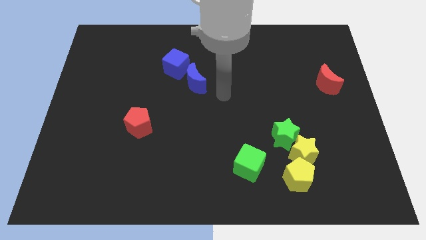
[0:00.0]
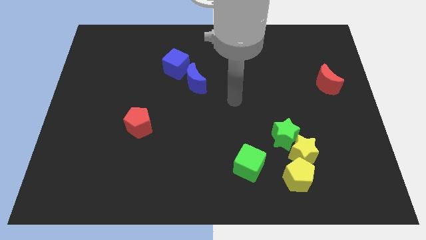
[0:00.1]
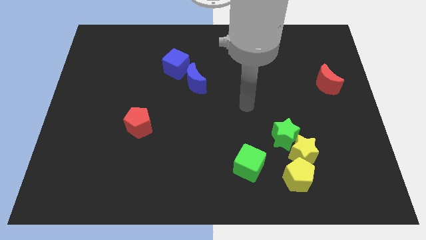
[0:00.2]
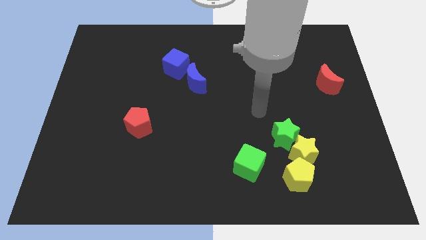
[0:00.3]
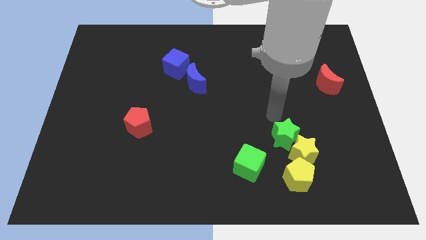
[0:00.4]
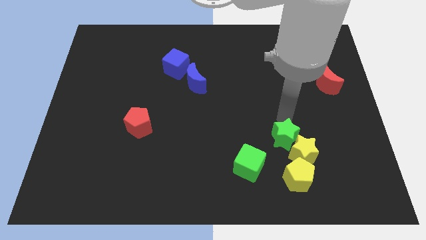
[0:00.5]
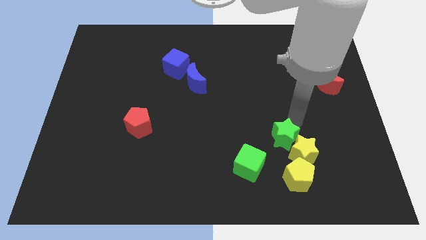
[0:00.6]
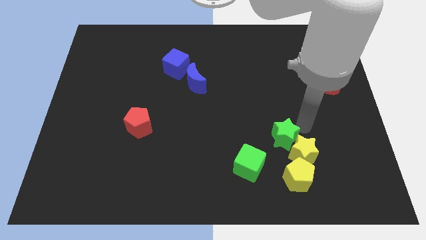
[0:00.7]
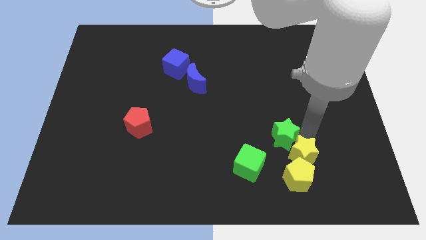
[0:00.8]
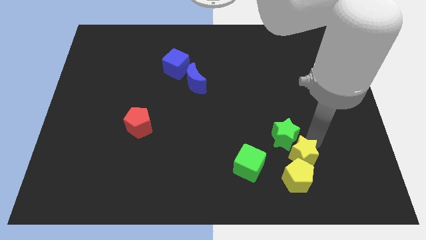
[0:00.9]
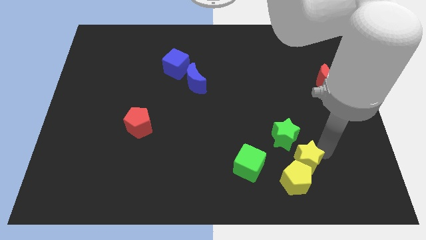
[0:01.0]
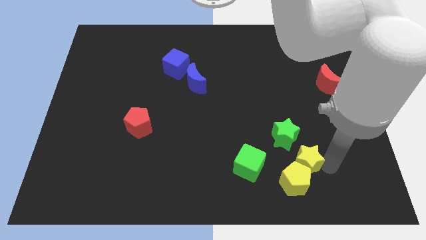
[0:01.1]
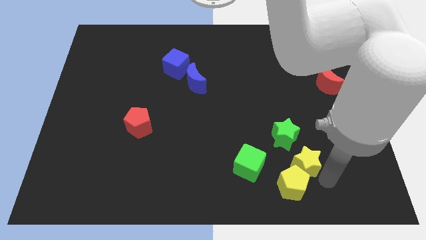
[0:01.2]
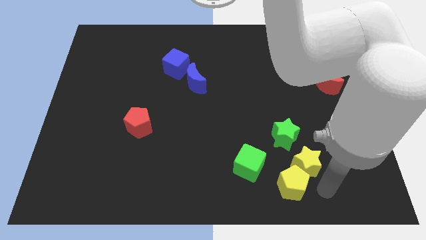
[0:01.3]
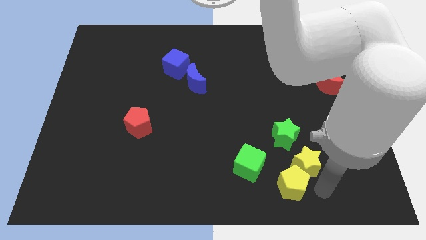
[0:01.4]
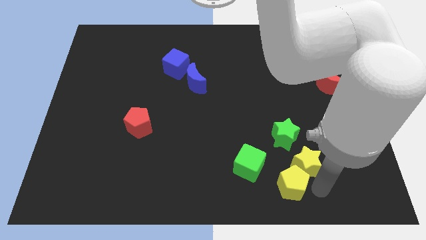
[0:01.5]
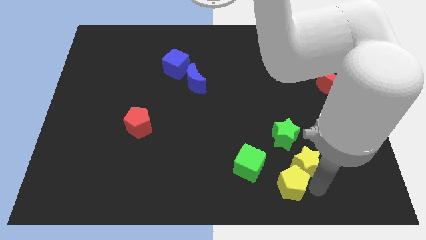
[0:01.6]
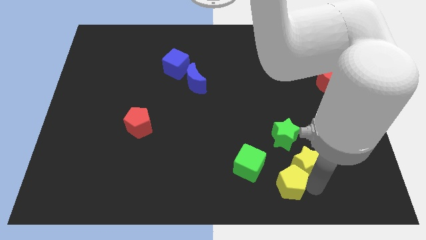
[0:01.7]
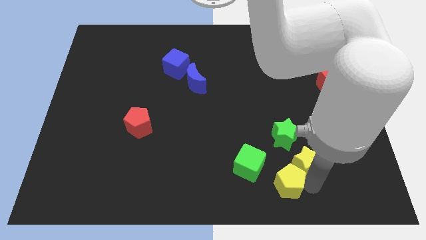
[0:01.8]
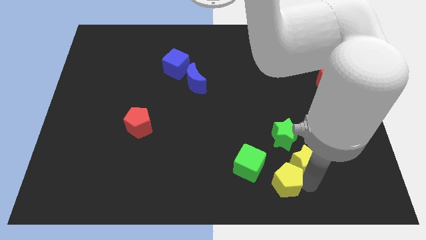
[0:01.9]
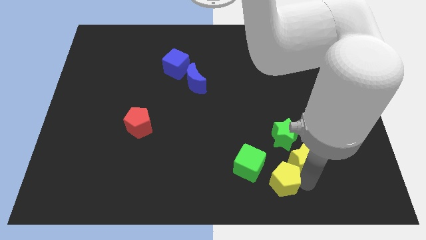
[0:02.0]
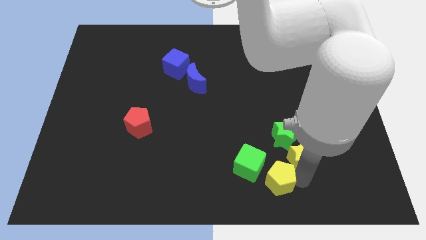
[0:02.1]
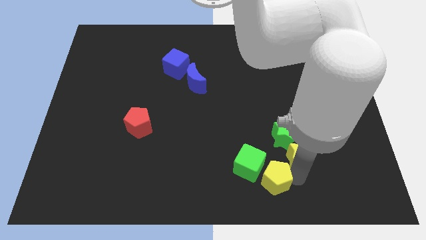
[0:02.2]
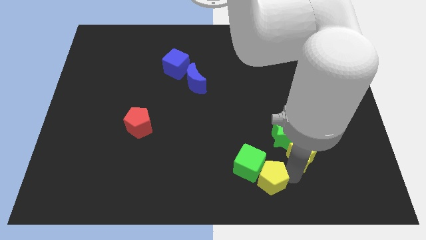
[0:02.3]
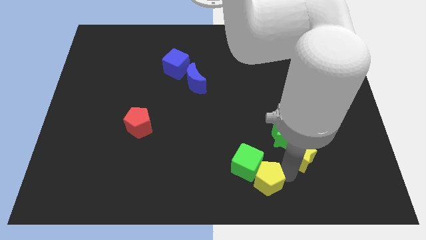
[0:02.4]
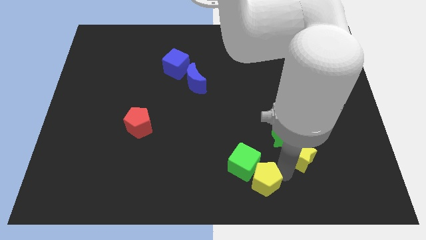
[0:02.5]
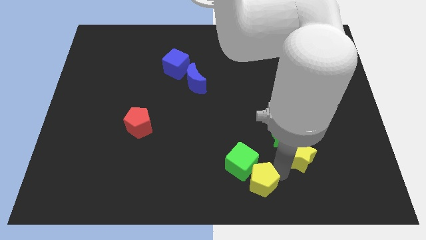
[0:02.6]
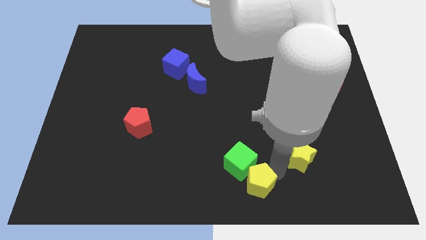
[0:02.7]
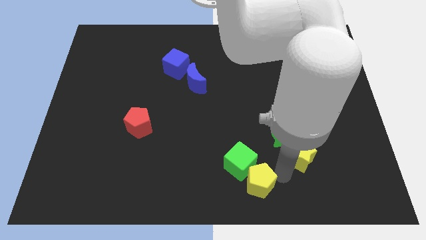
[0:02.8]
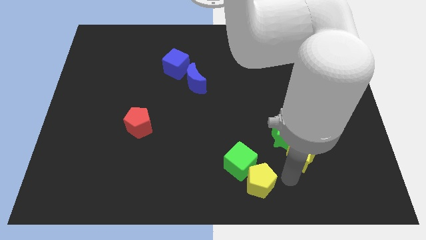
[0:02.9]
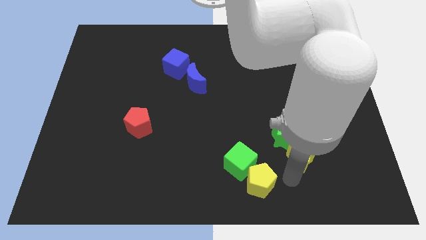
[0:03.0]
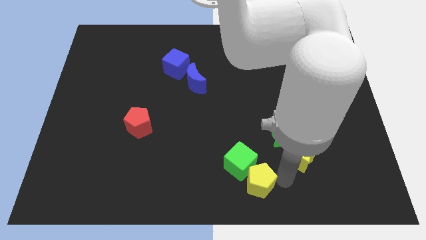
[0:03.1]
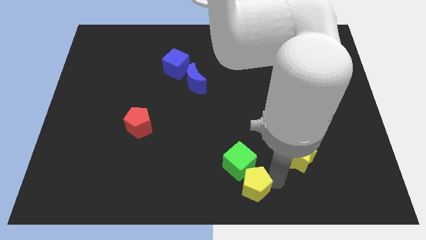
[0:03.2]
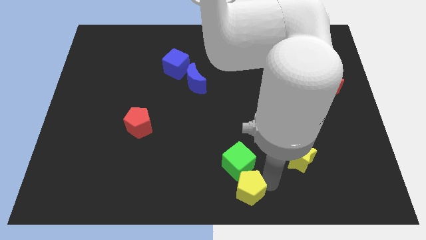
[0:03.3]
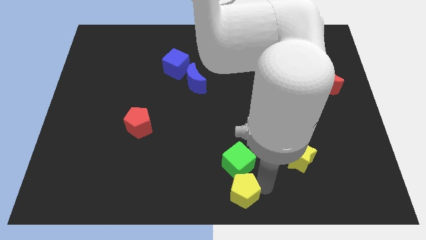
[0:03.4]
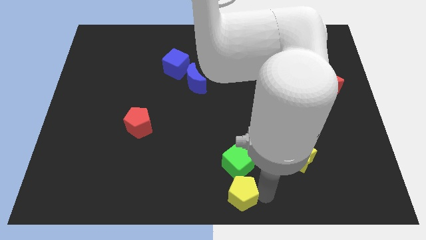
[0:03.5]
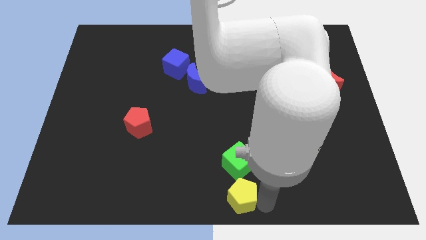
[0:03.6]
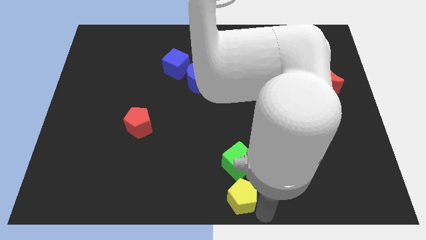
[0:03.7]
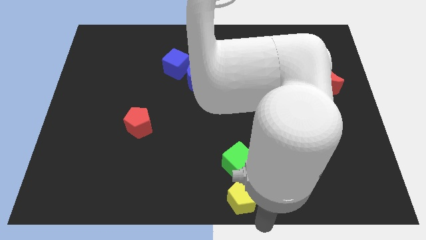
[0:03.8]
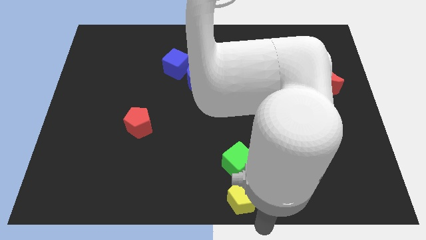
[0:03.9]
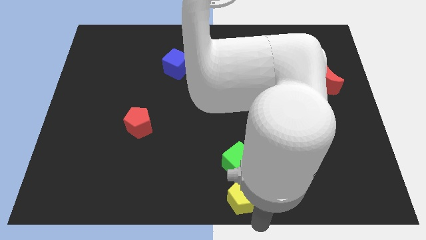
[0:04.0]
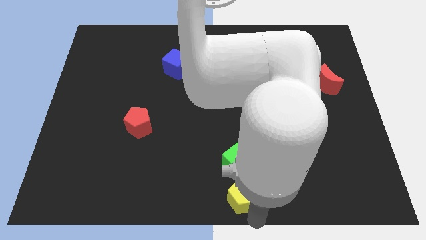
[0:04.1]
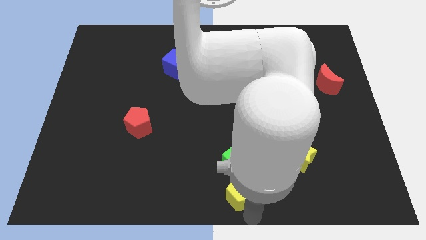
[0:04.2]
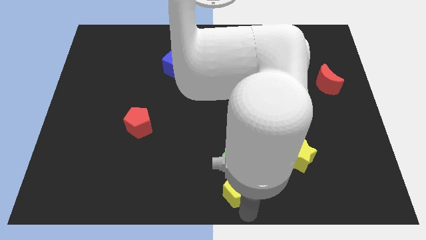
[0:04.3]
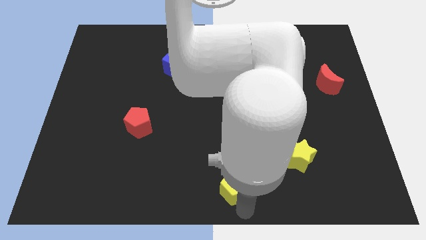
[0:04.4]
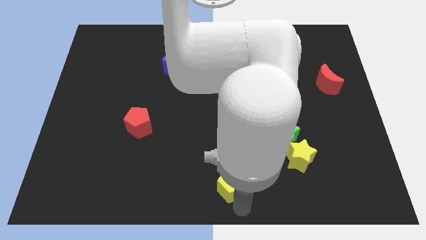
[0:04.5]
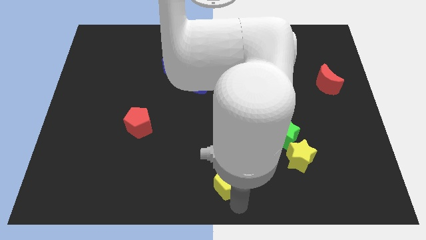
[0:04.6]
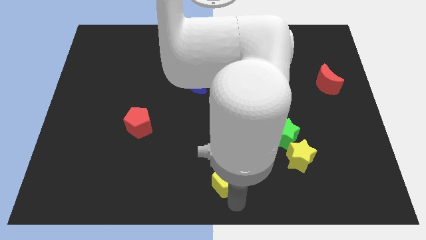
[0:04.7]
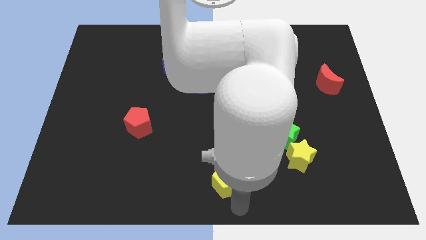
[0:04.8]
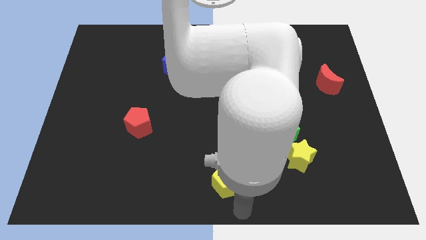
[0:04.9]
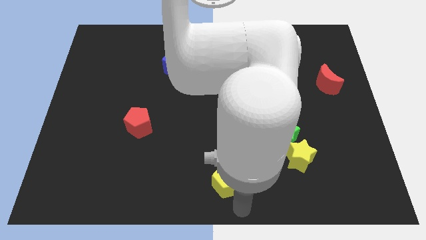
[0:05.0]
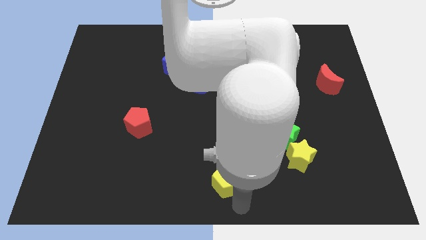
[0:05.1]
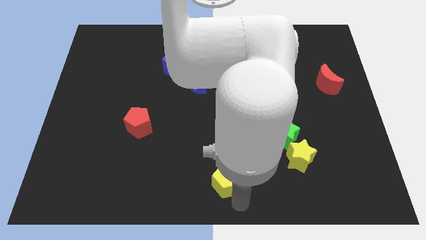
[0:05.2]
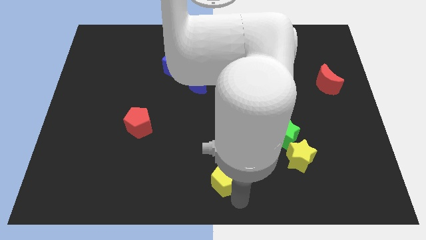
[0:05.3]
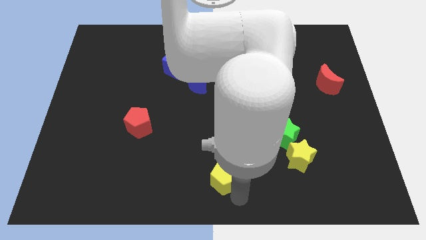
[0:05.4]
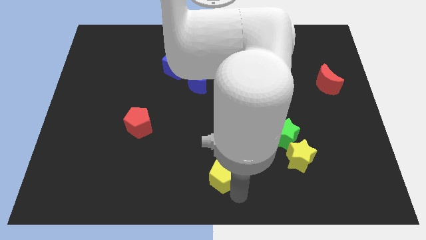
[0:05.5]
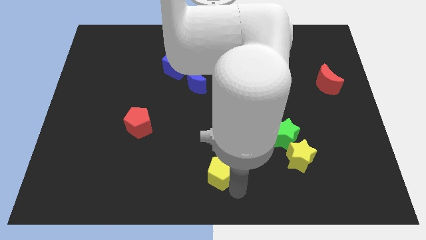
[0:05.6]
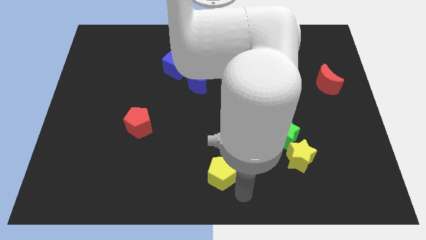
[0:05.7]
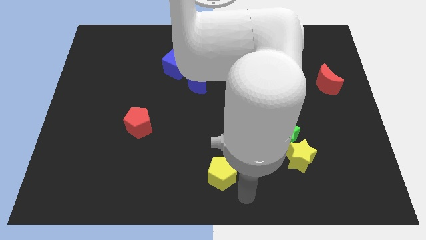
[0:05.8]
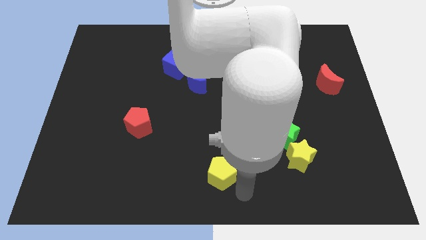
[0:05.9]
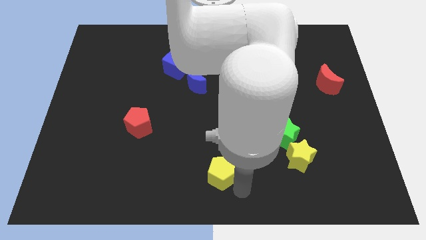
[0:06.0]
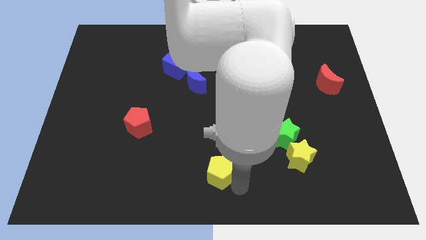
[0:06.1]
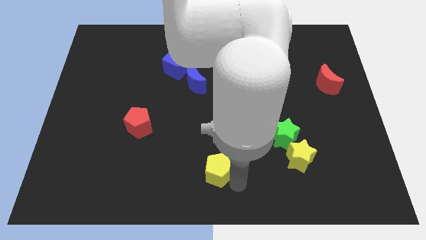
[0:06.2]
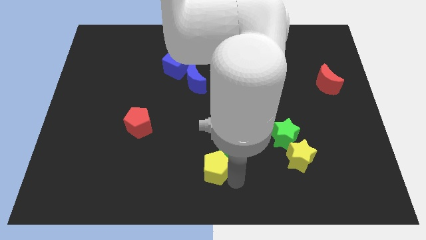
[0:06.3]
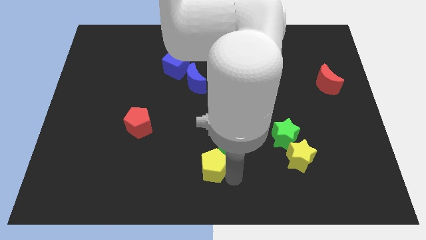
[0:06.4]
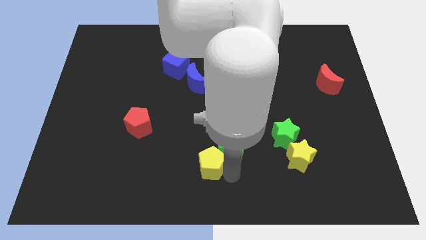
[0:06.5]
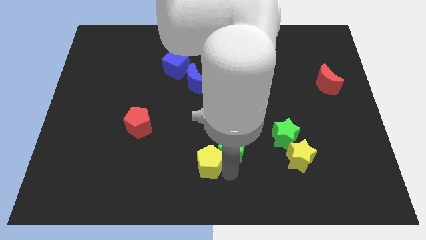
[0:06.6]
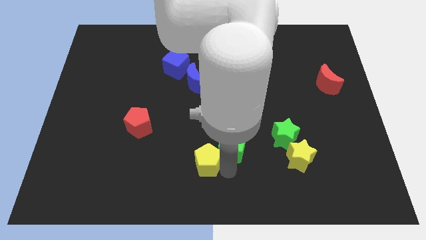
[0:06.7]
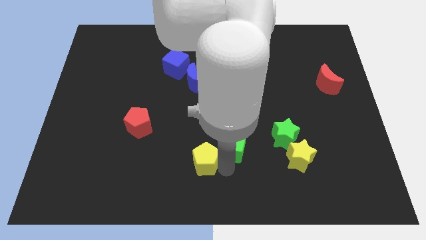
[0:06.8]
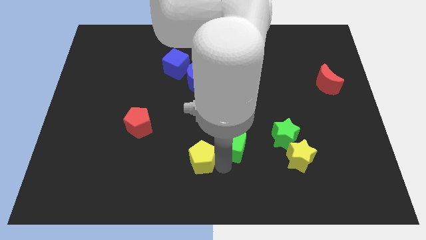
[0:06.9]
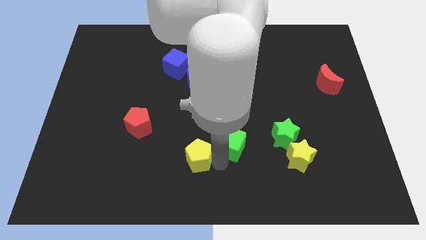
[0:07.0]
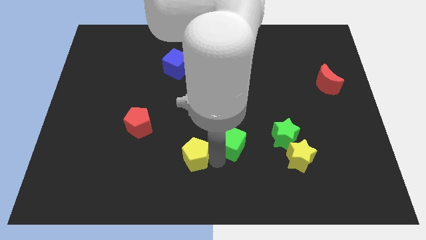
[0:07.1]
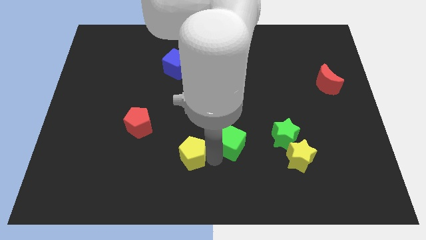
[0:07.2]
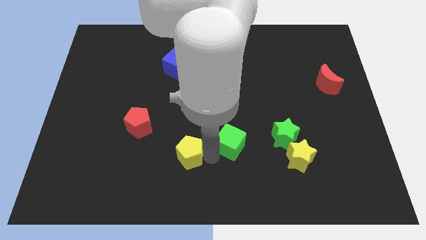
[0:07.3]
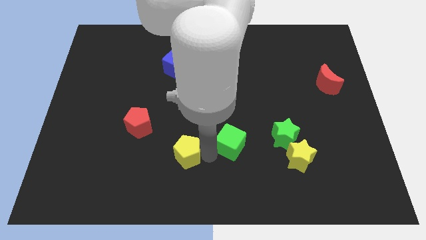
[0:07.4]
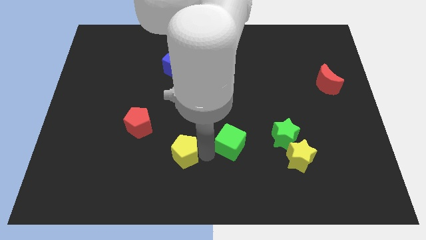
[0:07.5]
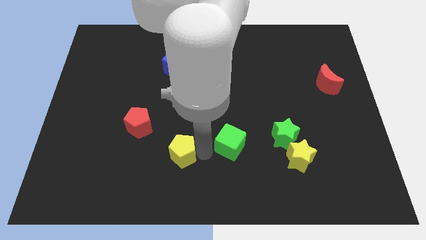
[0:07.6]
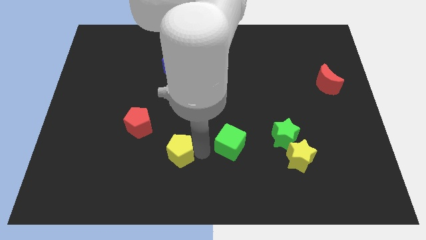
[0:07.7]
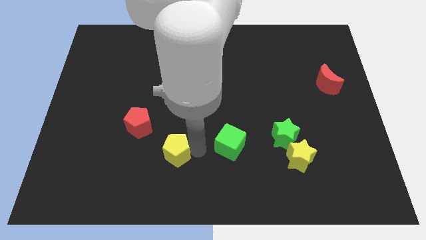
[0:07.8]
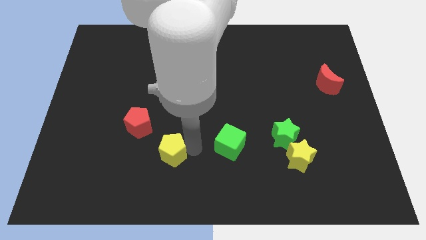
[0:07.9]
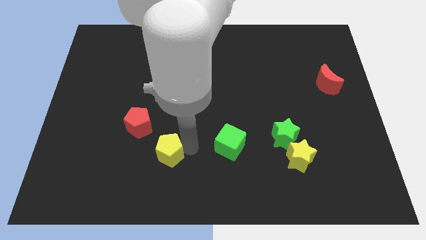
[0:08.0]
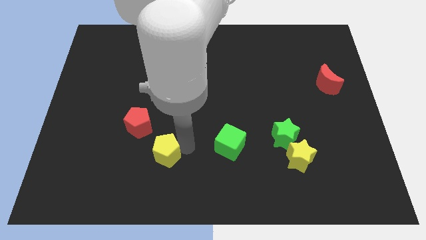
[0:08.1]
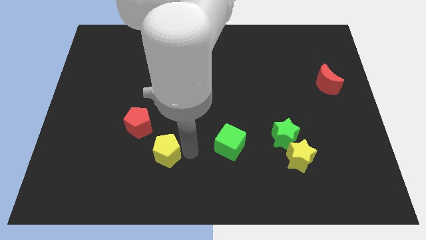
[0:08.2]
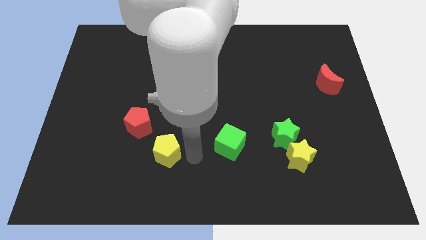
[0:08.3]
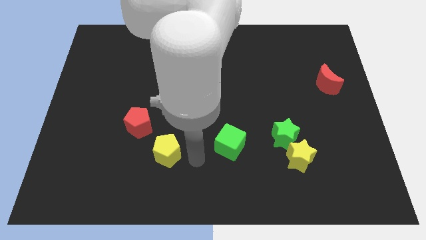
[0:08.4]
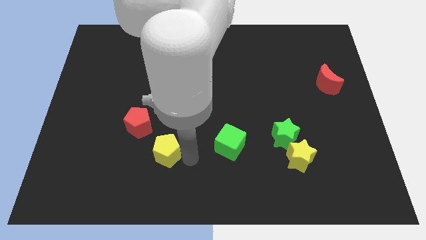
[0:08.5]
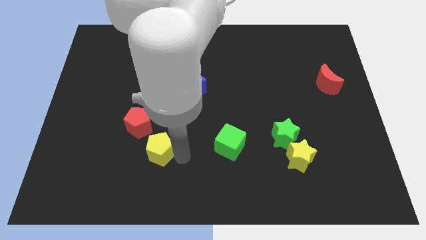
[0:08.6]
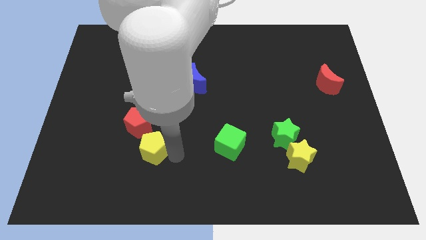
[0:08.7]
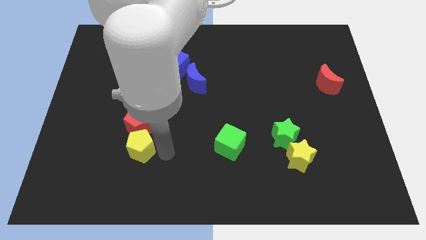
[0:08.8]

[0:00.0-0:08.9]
slide the yellow pentagon to the bottom left side of the red pentagon
